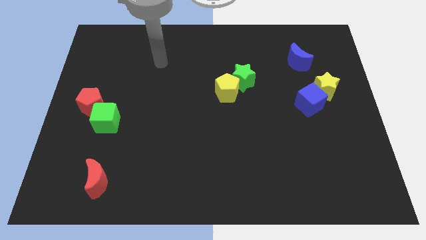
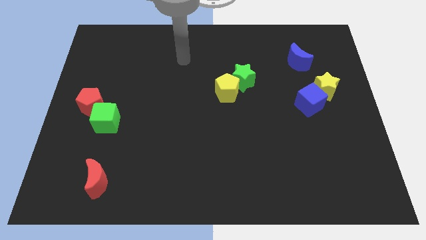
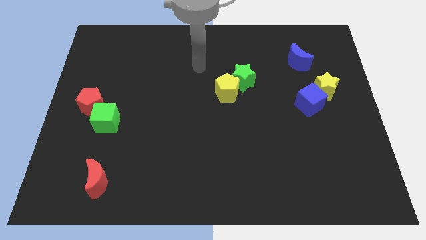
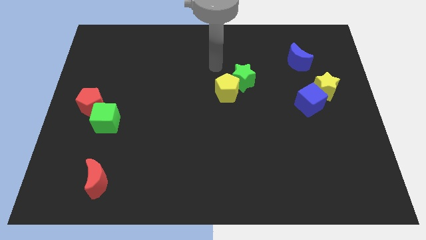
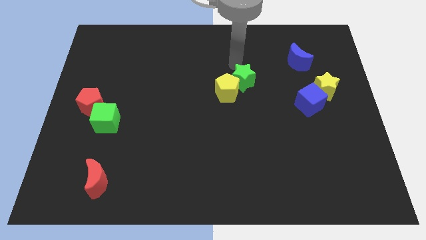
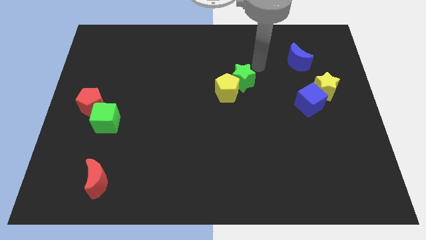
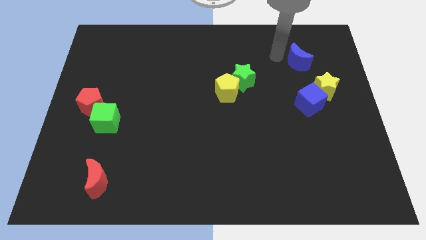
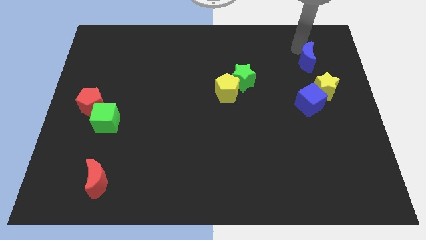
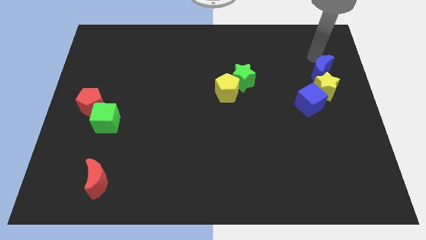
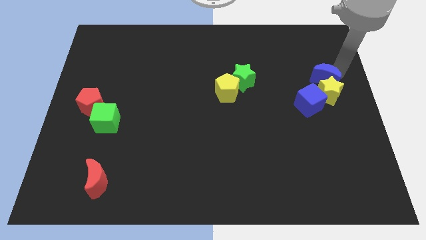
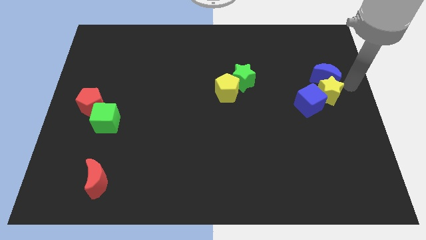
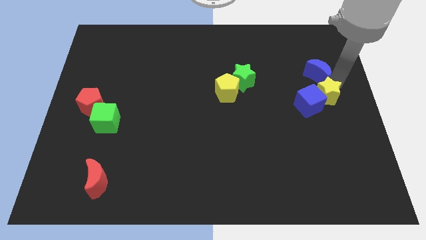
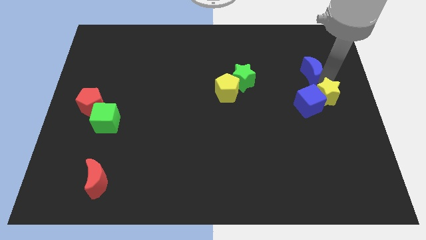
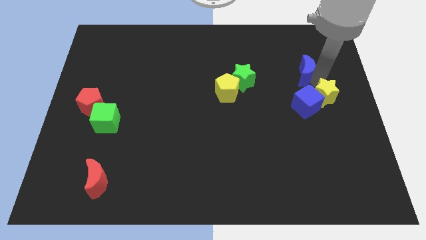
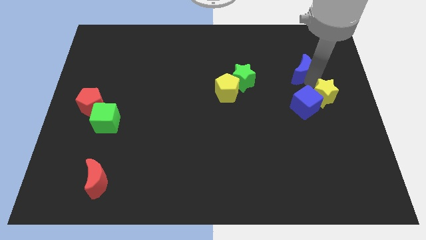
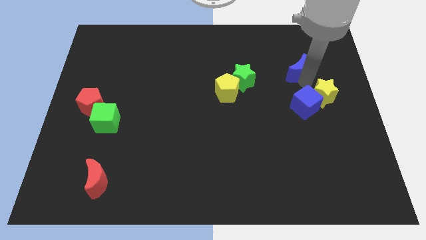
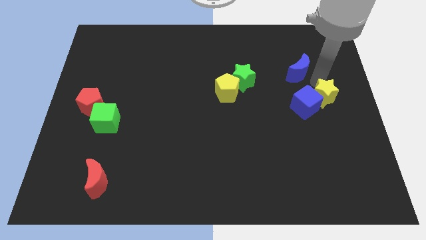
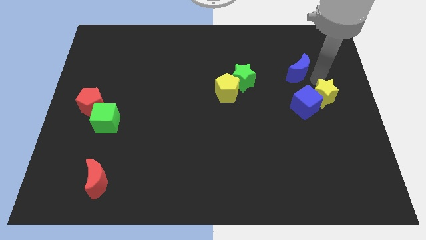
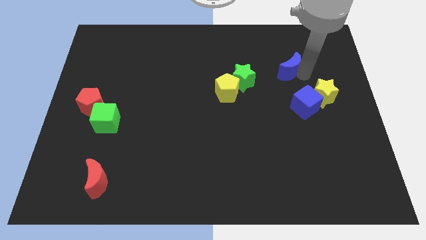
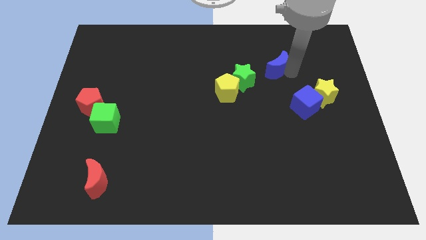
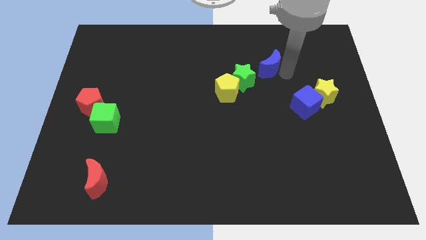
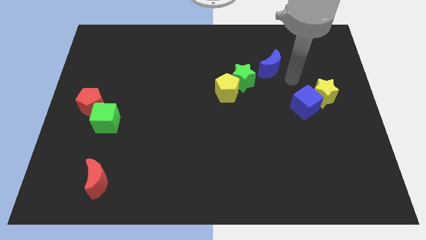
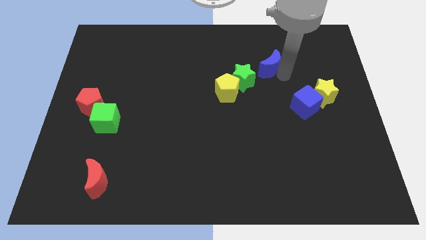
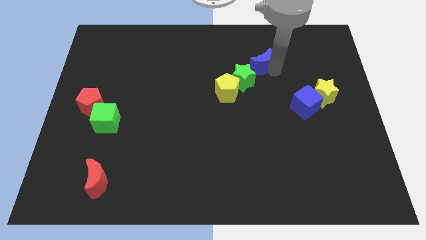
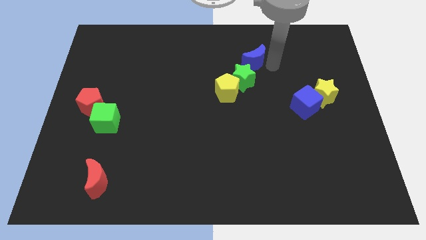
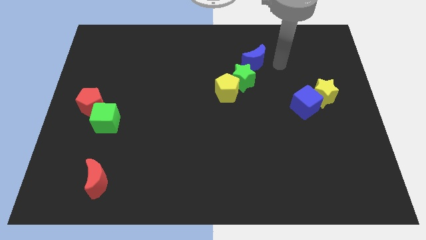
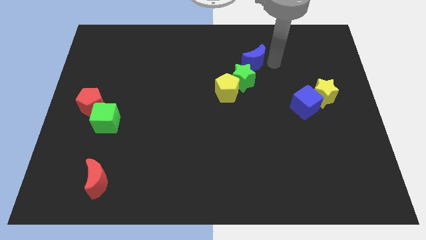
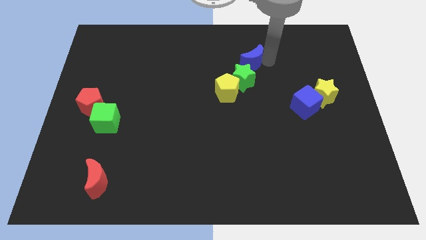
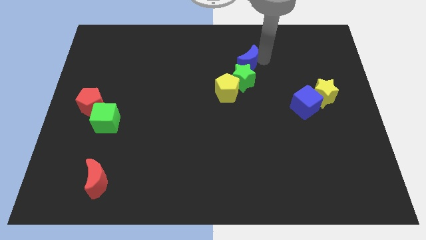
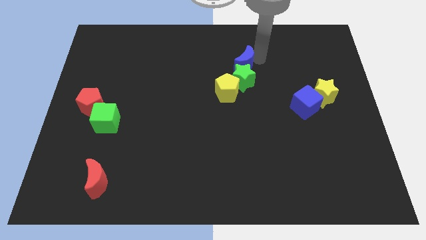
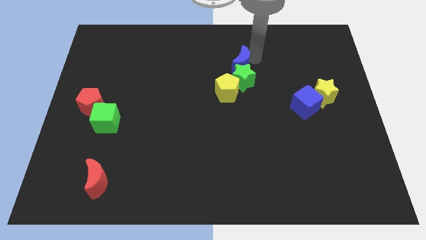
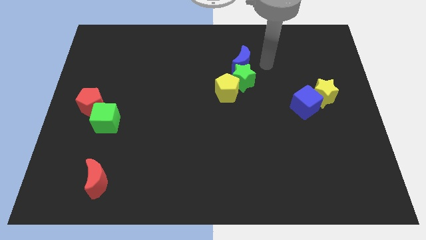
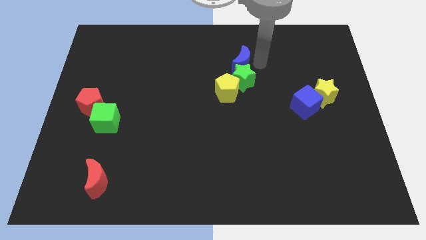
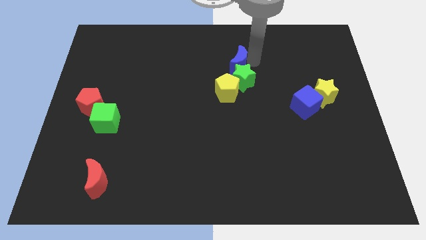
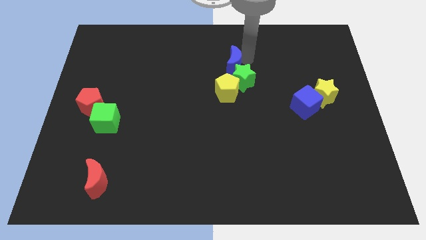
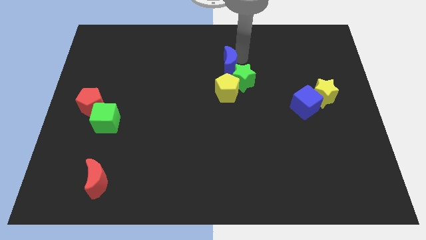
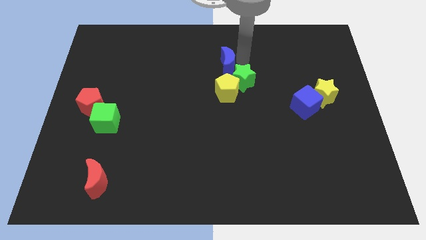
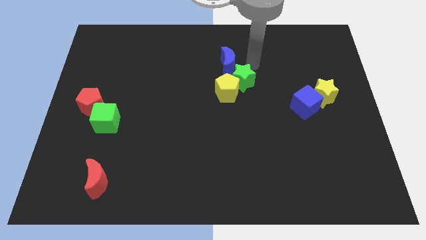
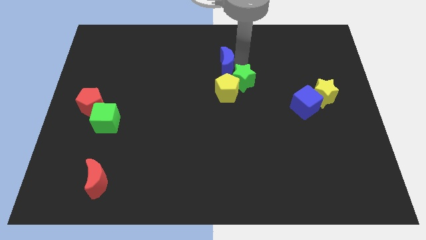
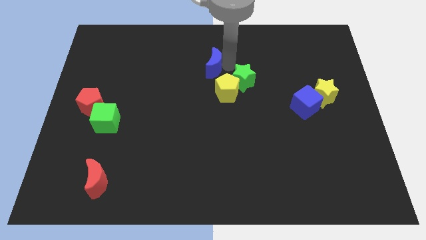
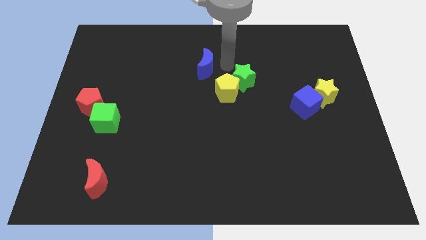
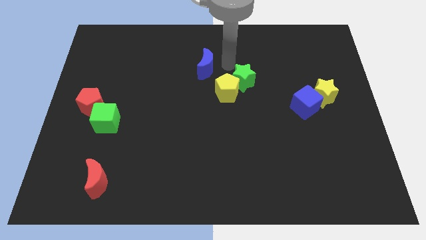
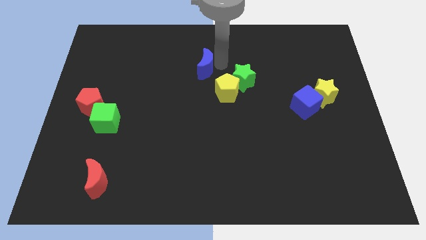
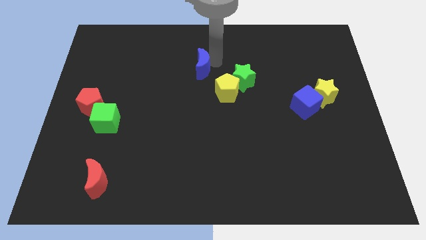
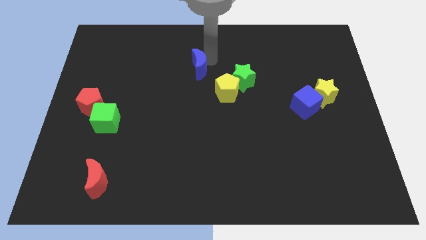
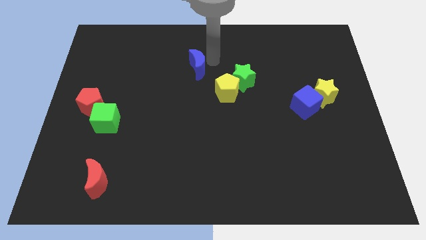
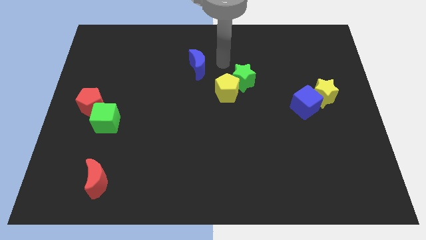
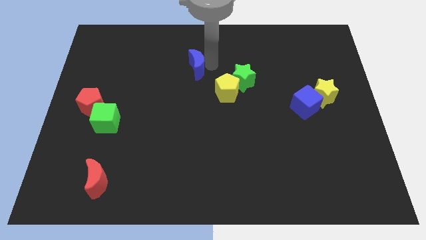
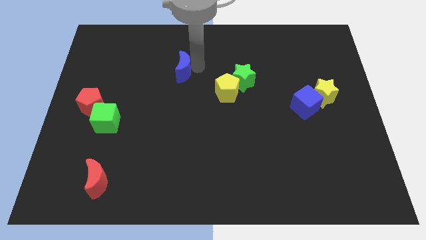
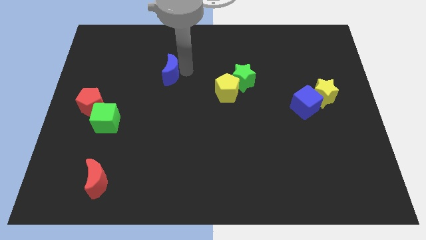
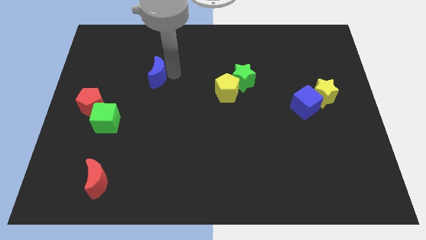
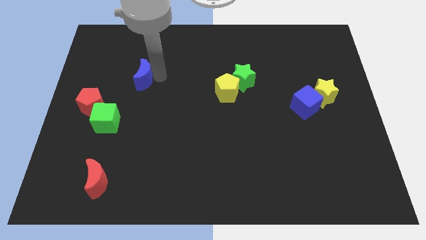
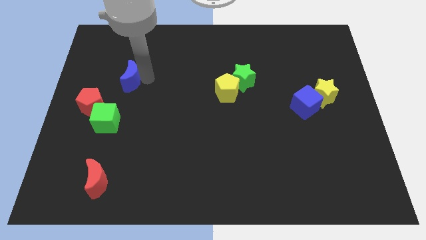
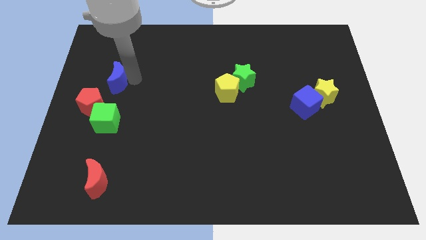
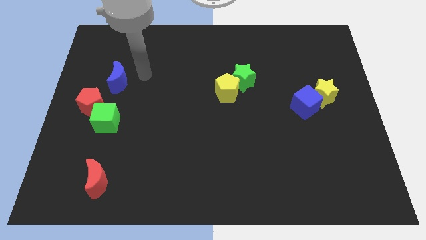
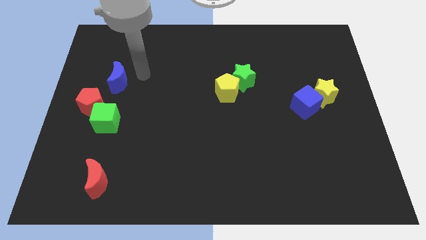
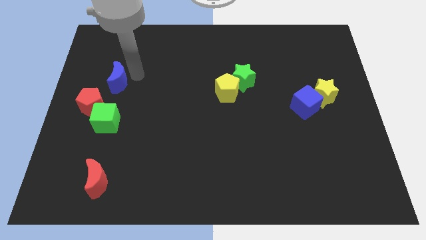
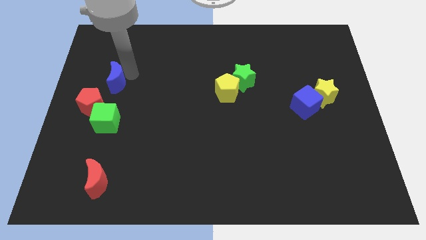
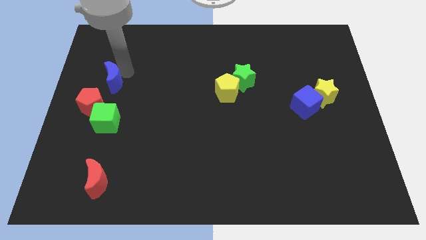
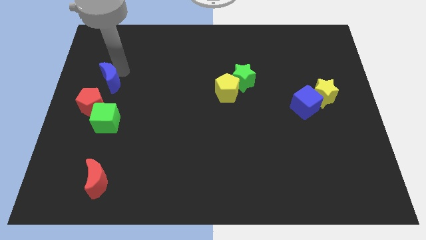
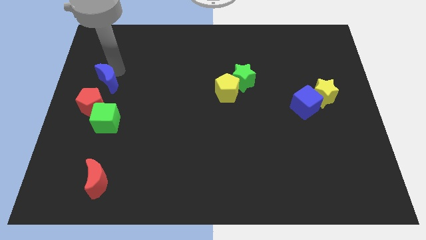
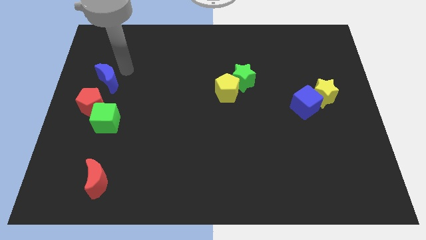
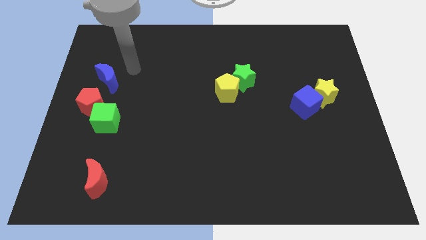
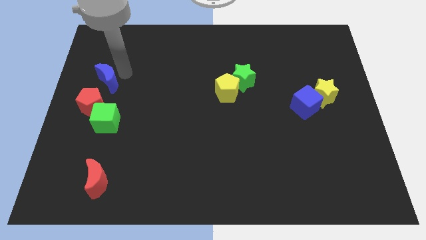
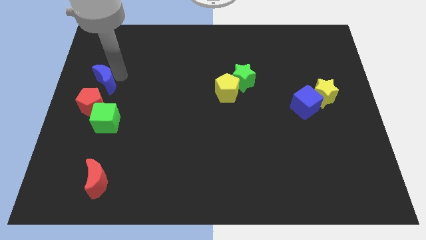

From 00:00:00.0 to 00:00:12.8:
slide the blue moon to the left side of the board
